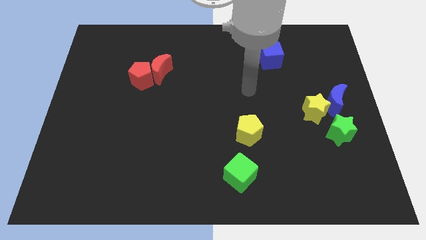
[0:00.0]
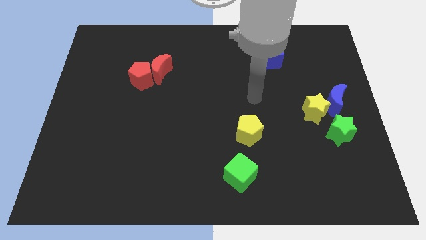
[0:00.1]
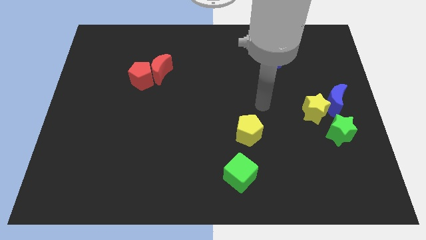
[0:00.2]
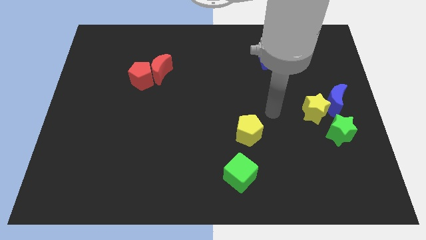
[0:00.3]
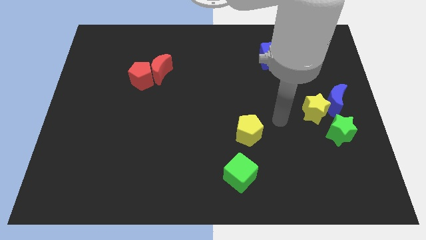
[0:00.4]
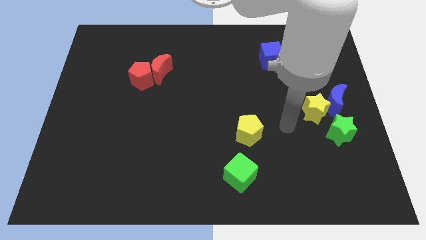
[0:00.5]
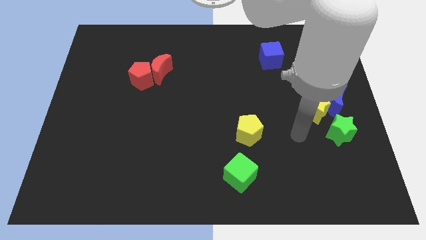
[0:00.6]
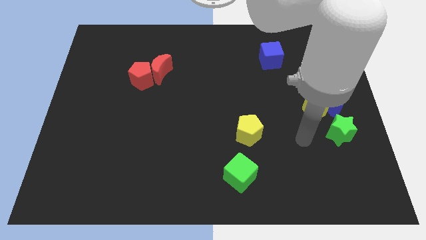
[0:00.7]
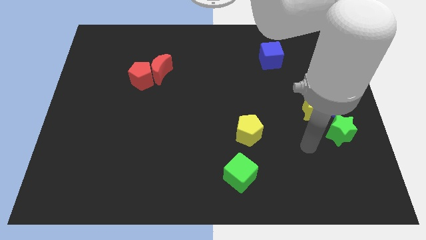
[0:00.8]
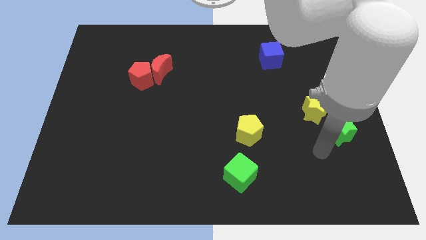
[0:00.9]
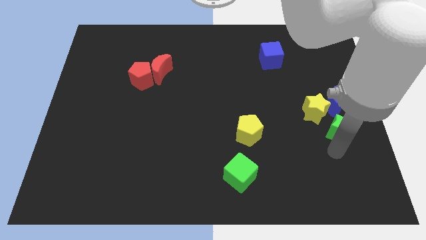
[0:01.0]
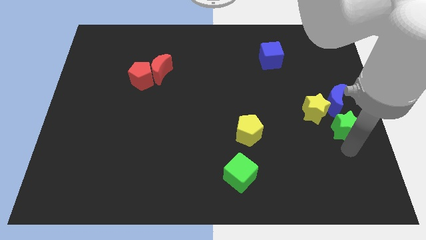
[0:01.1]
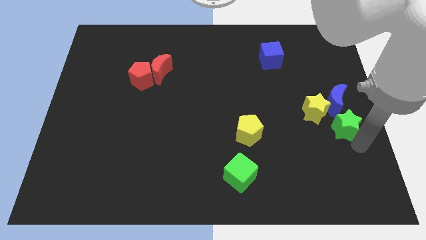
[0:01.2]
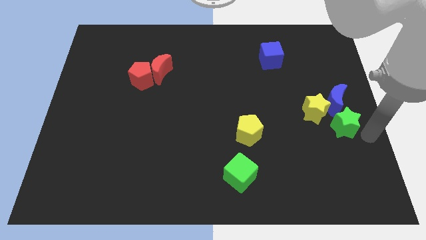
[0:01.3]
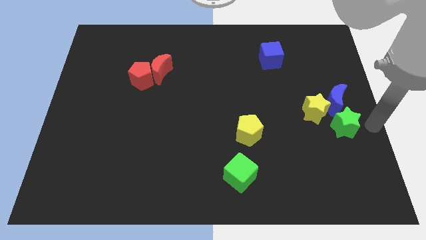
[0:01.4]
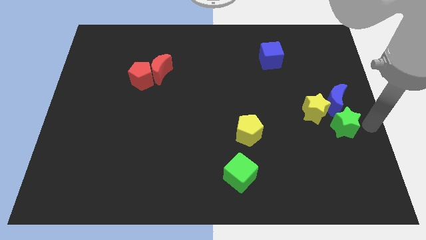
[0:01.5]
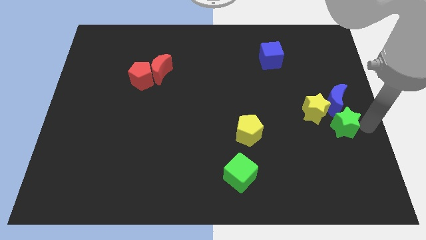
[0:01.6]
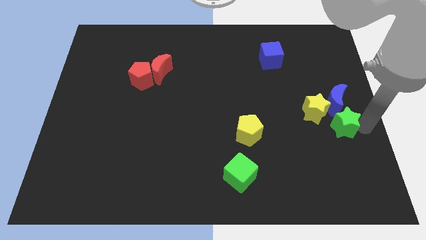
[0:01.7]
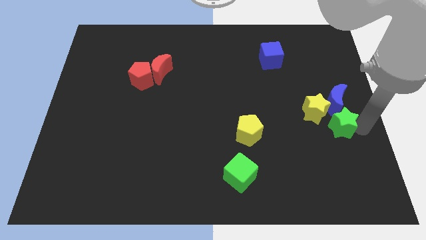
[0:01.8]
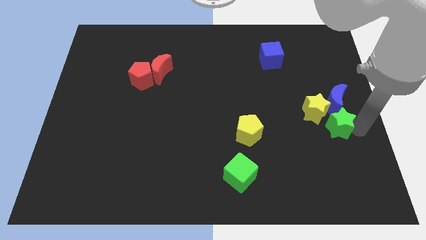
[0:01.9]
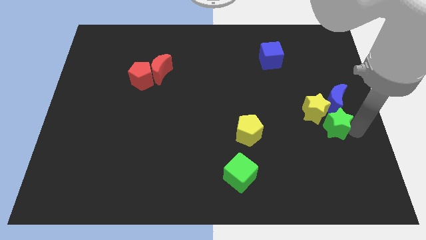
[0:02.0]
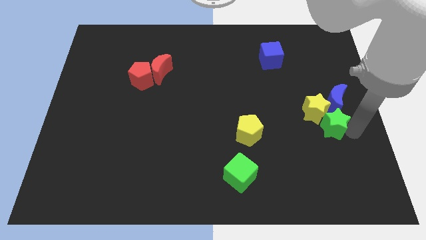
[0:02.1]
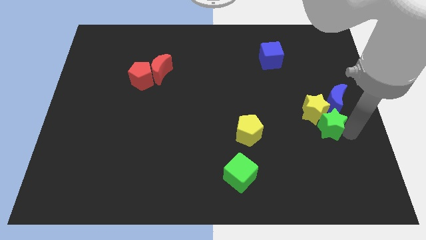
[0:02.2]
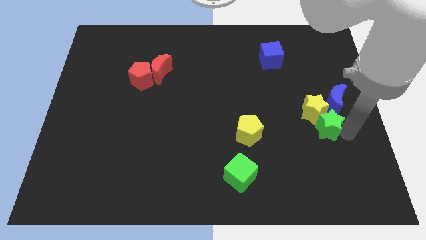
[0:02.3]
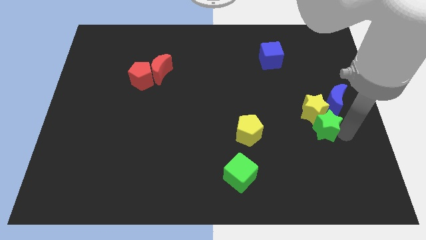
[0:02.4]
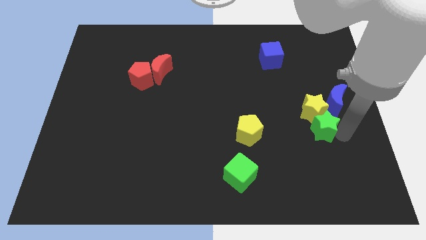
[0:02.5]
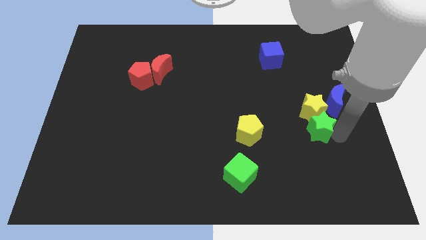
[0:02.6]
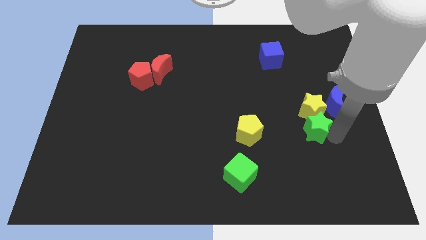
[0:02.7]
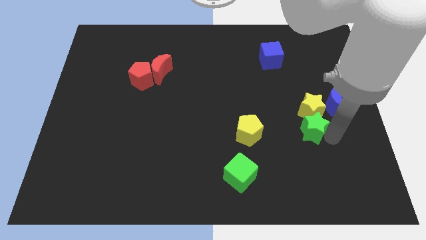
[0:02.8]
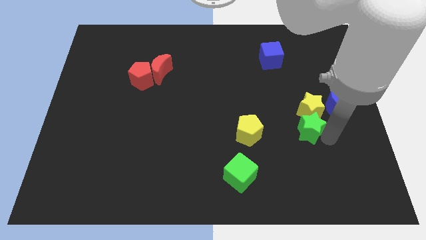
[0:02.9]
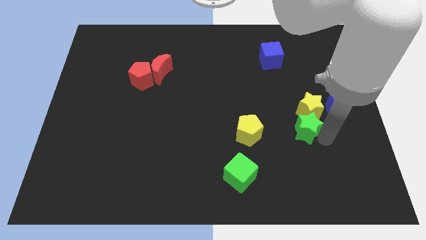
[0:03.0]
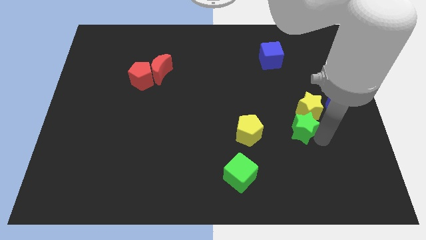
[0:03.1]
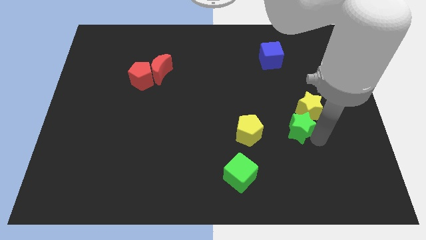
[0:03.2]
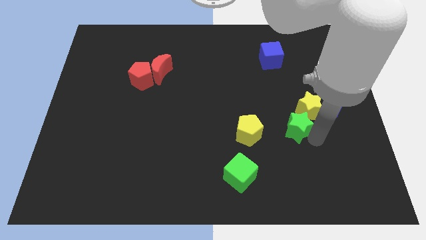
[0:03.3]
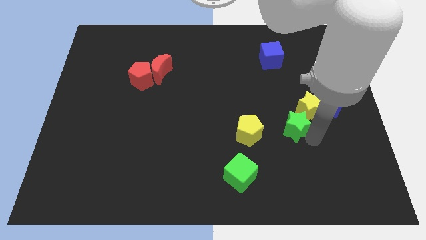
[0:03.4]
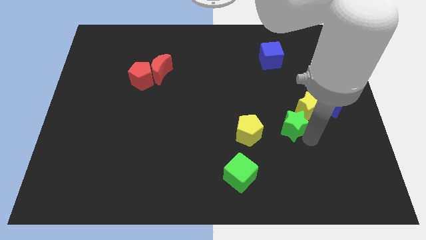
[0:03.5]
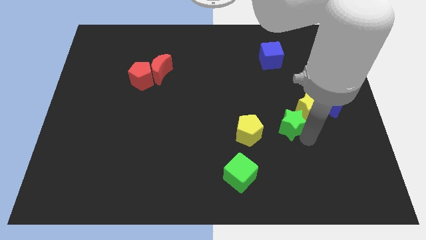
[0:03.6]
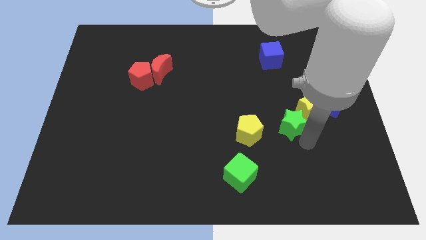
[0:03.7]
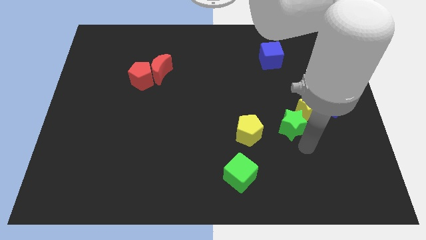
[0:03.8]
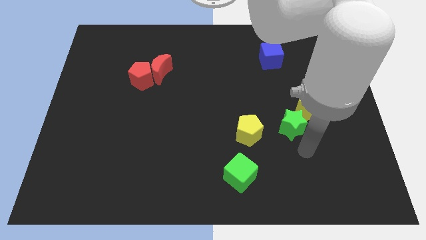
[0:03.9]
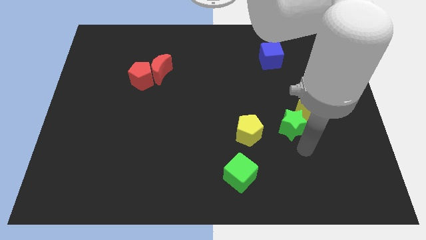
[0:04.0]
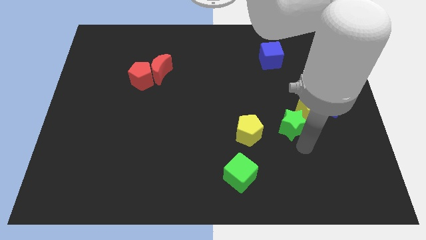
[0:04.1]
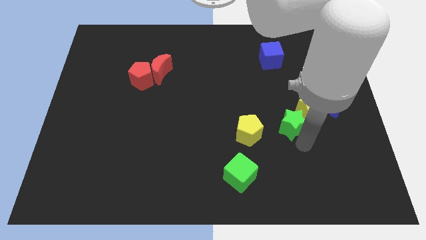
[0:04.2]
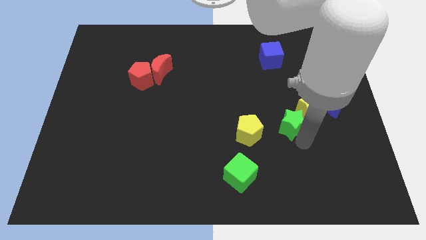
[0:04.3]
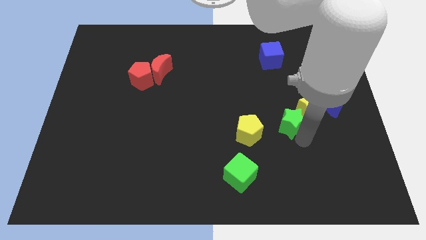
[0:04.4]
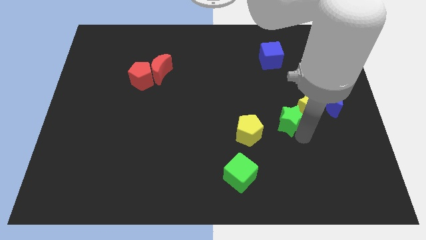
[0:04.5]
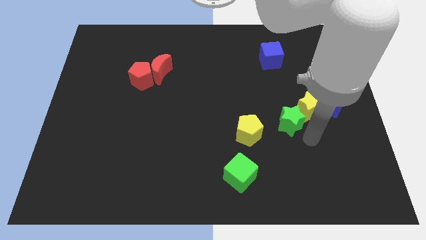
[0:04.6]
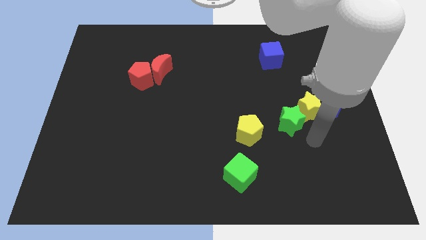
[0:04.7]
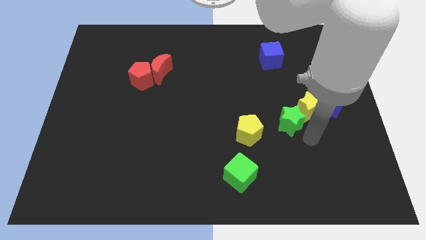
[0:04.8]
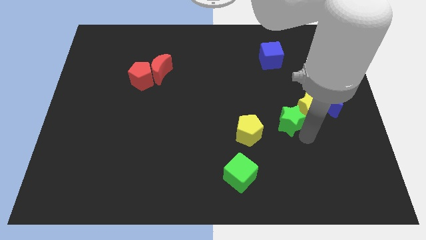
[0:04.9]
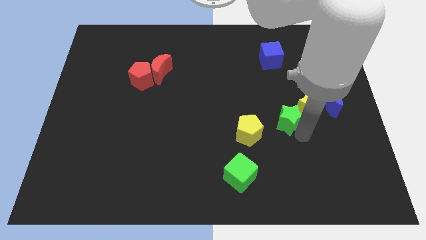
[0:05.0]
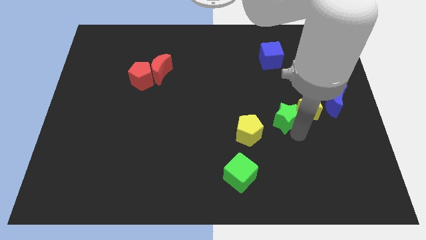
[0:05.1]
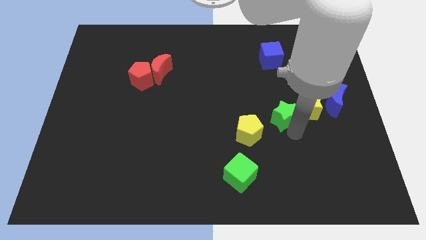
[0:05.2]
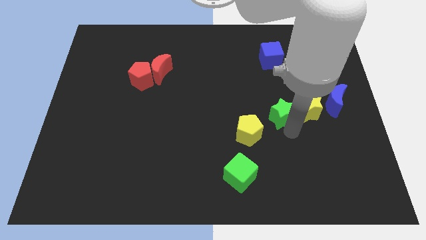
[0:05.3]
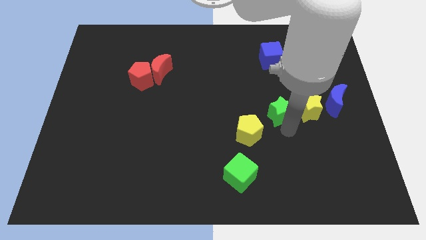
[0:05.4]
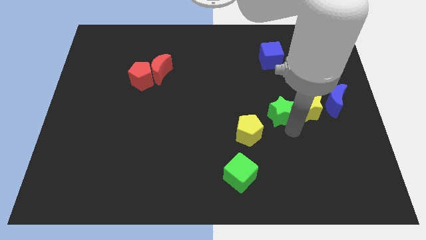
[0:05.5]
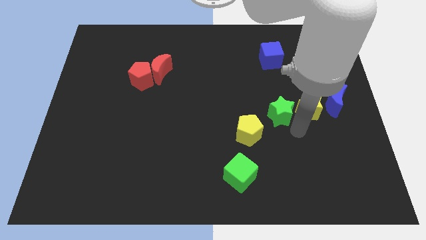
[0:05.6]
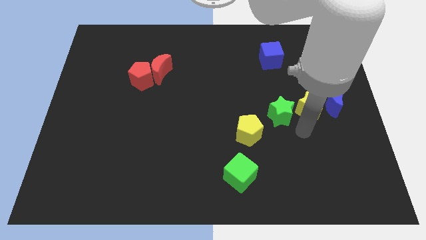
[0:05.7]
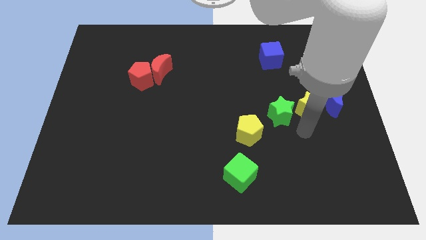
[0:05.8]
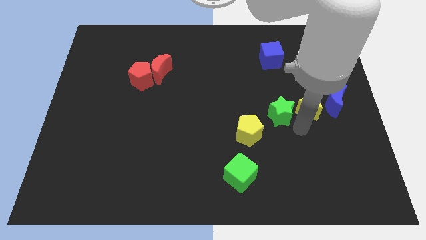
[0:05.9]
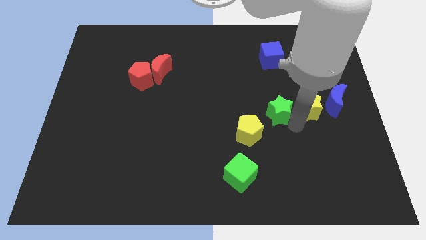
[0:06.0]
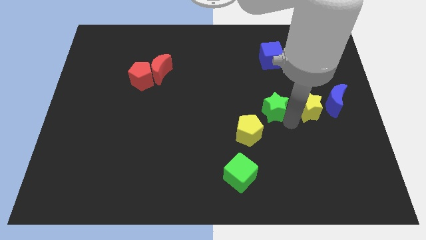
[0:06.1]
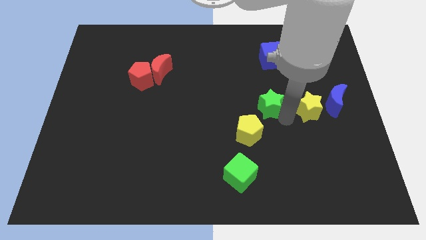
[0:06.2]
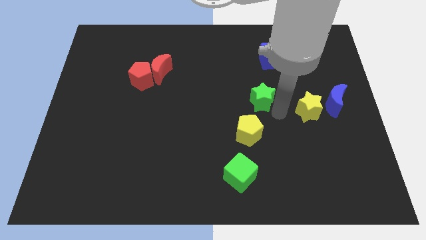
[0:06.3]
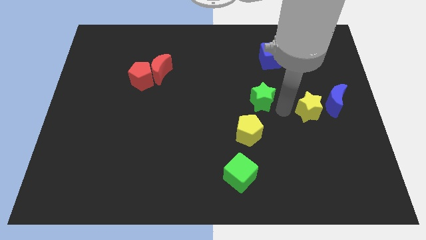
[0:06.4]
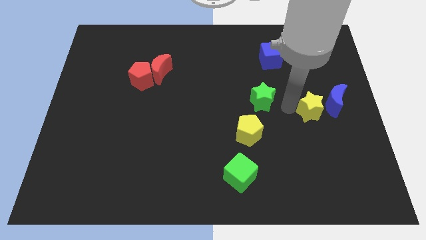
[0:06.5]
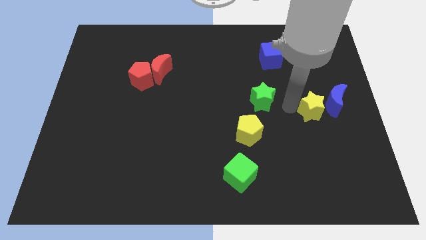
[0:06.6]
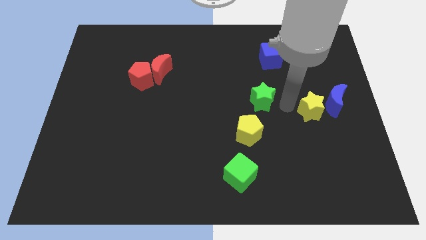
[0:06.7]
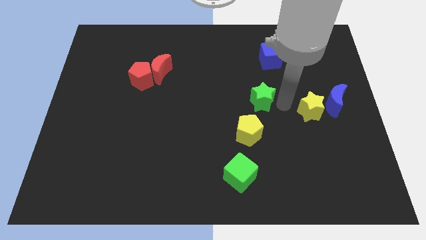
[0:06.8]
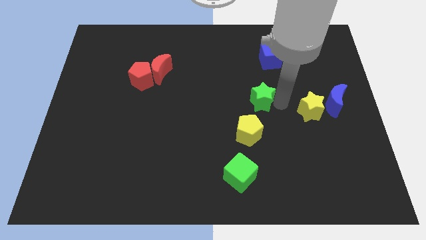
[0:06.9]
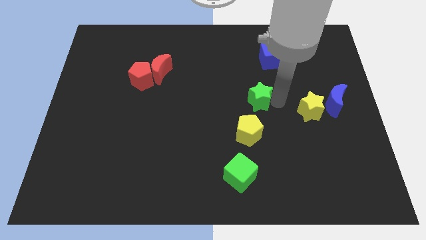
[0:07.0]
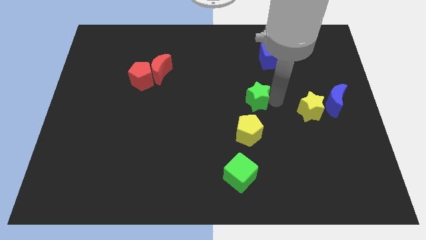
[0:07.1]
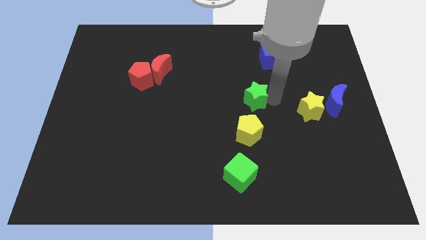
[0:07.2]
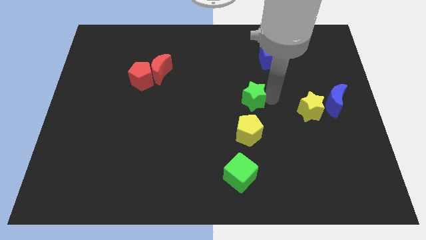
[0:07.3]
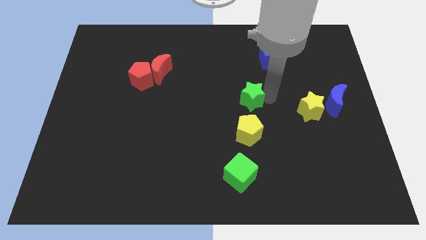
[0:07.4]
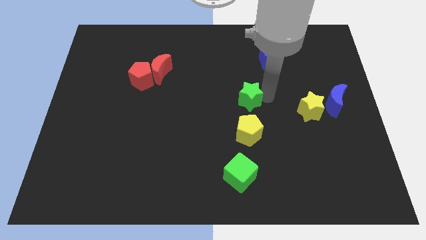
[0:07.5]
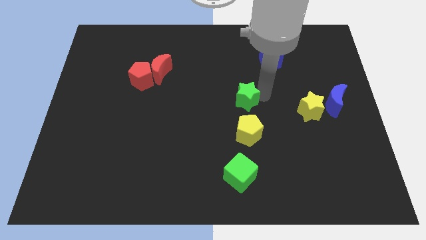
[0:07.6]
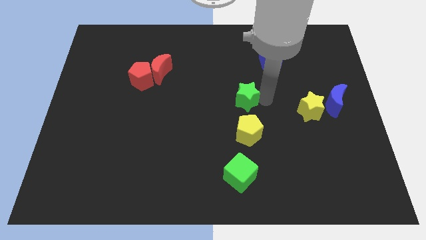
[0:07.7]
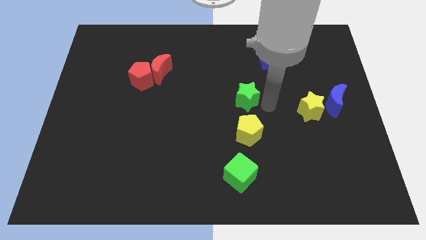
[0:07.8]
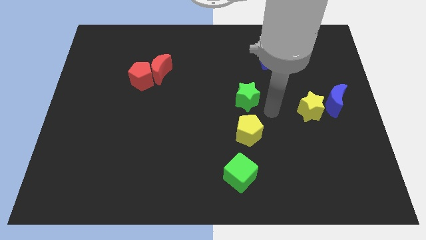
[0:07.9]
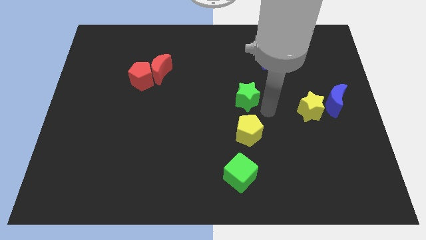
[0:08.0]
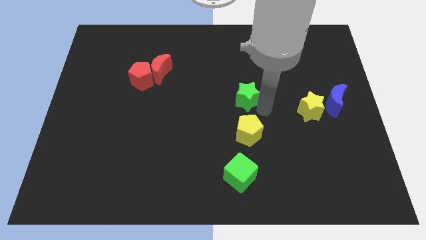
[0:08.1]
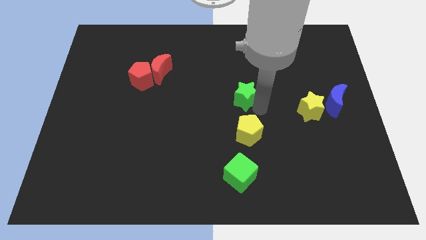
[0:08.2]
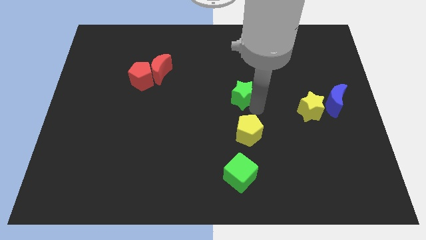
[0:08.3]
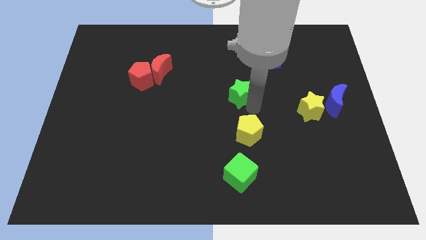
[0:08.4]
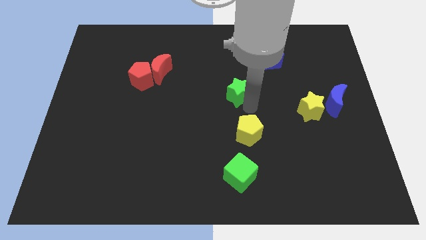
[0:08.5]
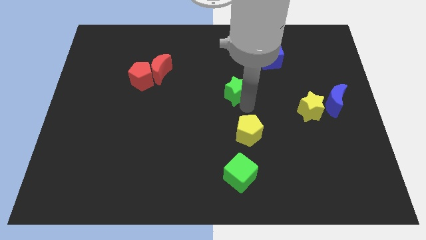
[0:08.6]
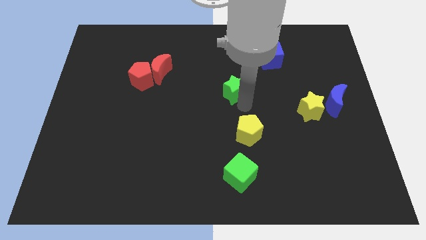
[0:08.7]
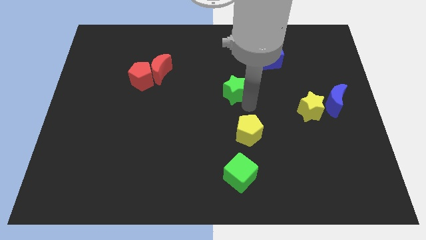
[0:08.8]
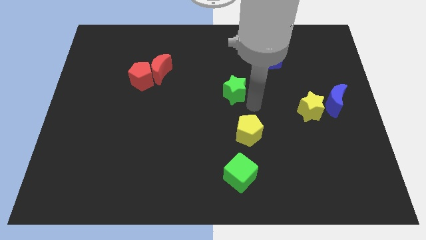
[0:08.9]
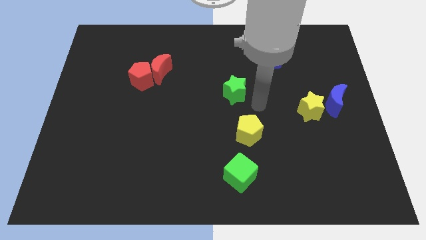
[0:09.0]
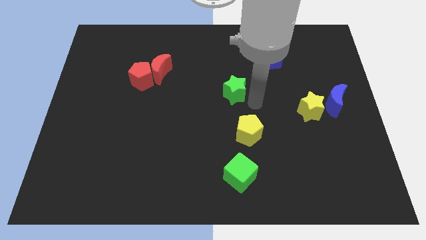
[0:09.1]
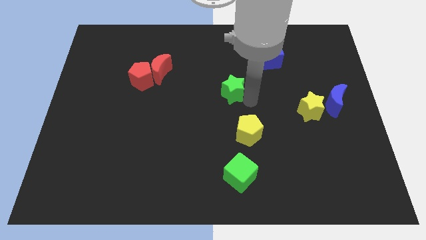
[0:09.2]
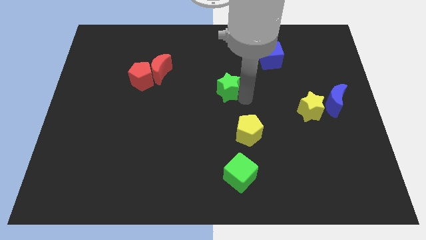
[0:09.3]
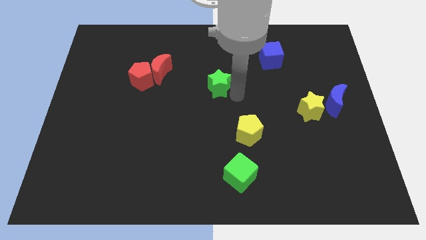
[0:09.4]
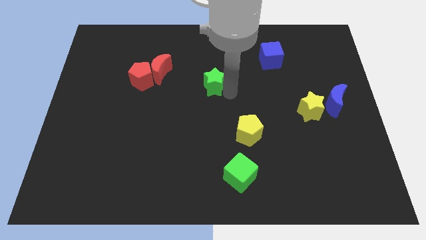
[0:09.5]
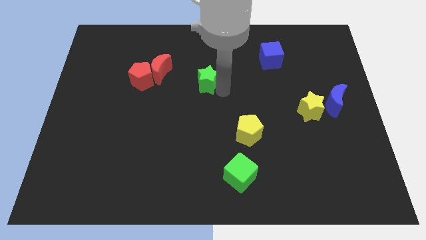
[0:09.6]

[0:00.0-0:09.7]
push the green star just right of the red moon
